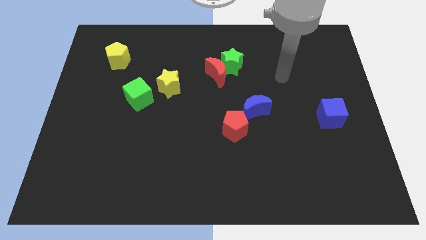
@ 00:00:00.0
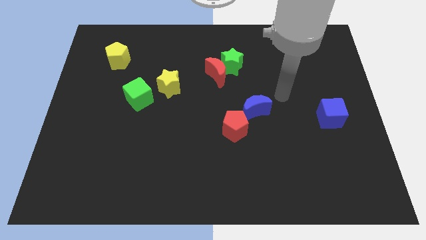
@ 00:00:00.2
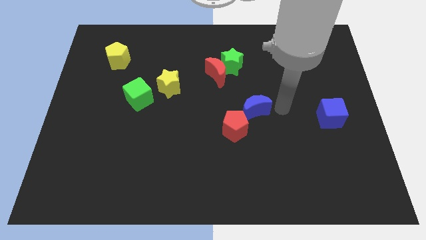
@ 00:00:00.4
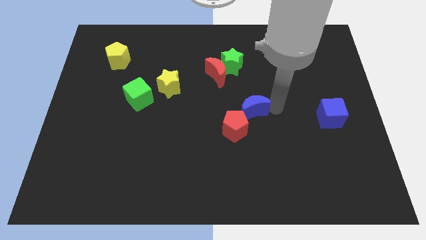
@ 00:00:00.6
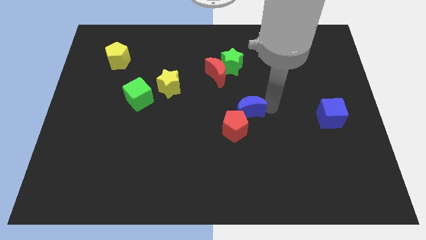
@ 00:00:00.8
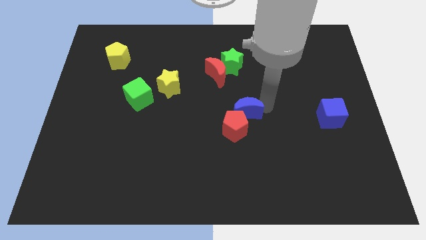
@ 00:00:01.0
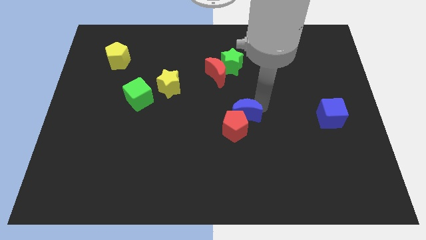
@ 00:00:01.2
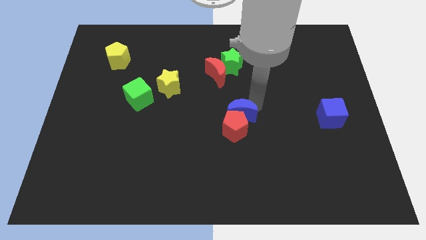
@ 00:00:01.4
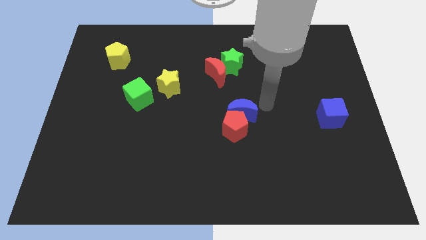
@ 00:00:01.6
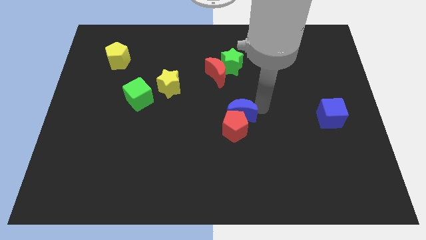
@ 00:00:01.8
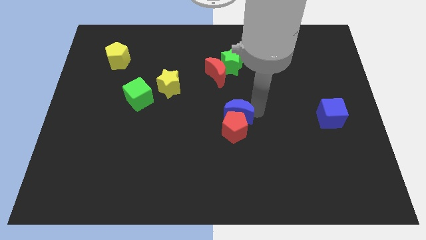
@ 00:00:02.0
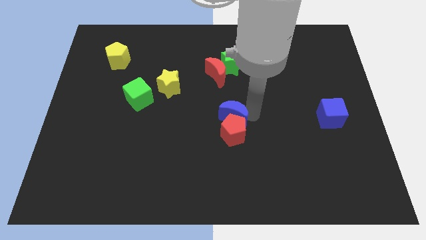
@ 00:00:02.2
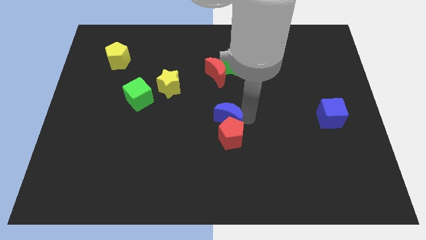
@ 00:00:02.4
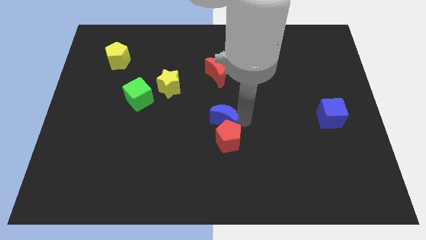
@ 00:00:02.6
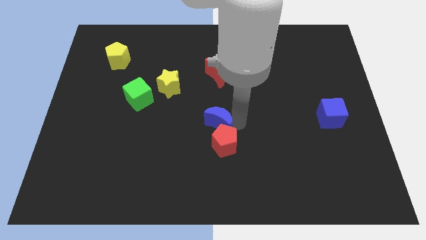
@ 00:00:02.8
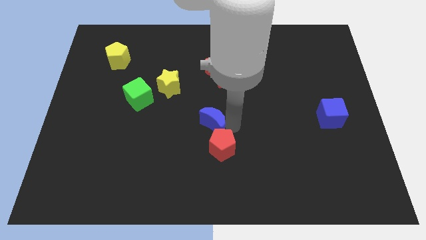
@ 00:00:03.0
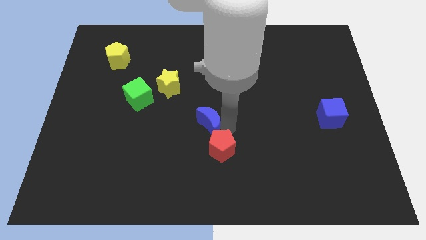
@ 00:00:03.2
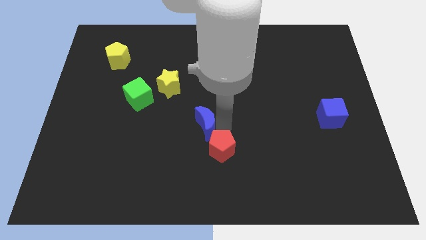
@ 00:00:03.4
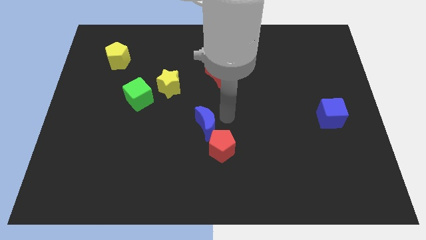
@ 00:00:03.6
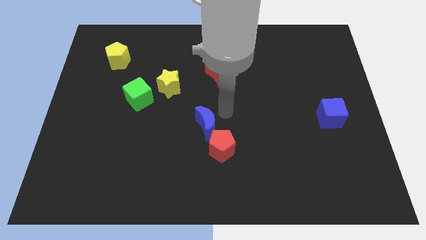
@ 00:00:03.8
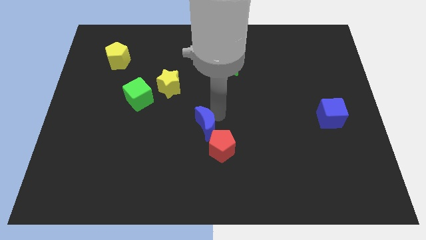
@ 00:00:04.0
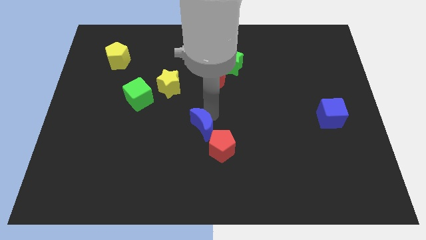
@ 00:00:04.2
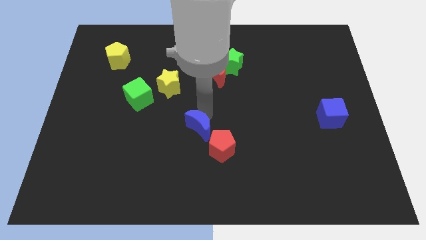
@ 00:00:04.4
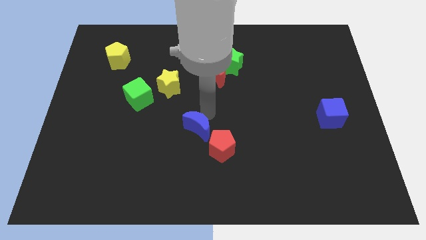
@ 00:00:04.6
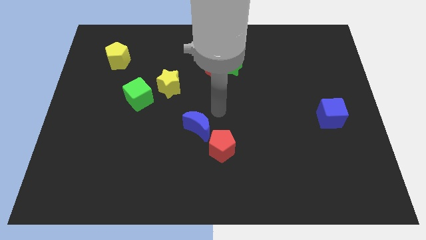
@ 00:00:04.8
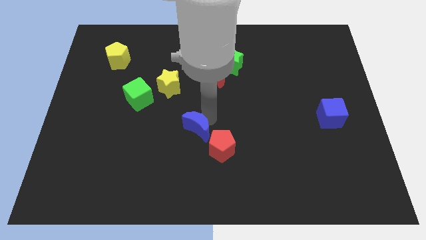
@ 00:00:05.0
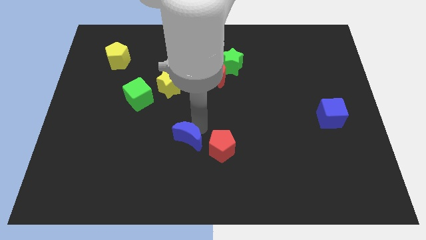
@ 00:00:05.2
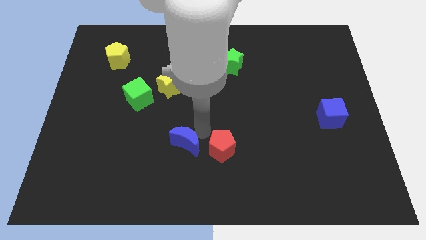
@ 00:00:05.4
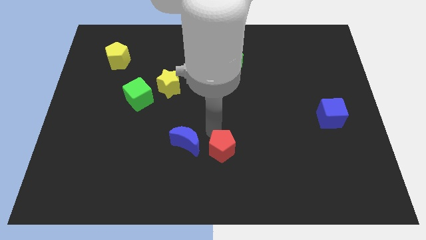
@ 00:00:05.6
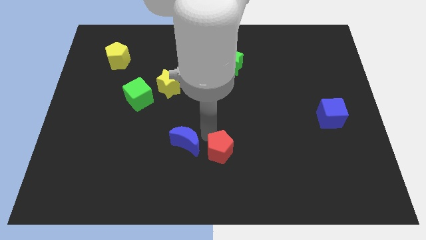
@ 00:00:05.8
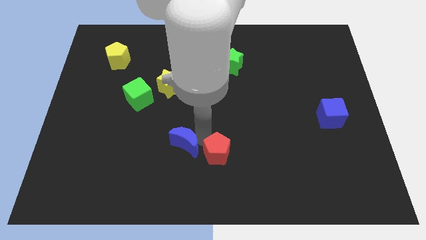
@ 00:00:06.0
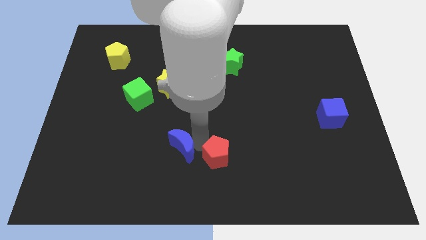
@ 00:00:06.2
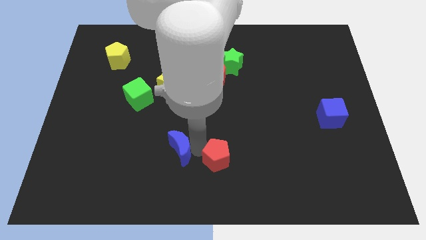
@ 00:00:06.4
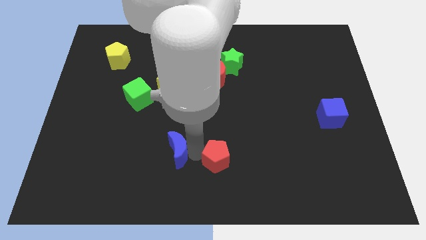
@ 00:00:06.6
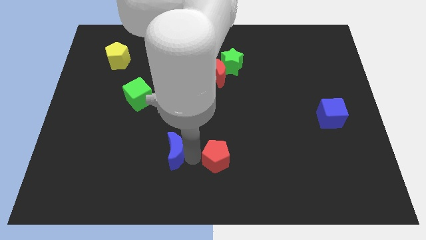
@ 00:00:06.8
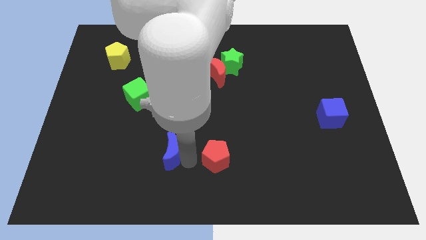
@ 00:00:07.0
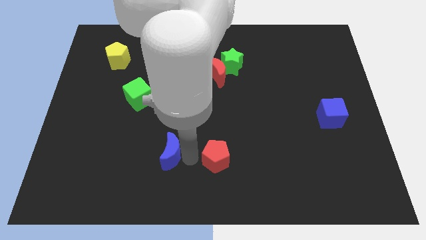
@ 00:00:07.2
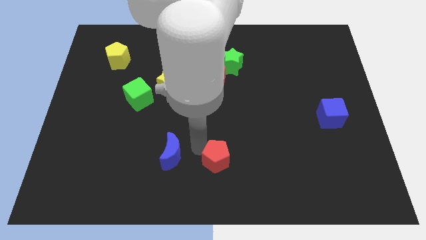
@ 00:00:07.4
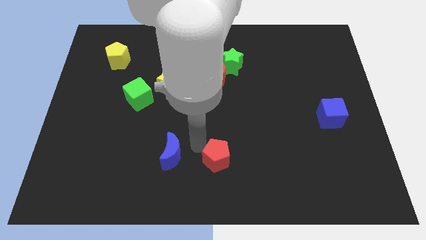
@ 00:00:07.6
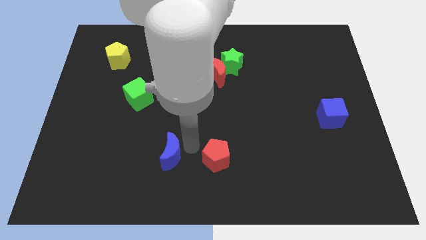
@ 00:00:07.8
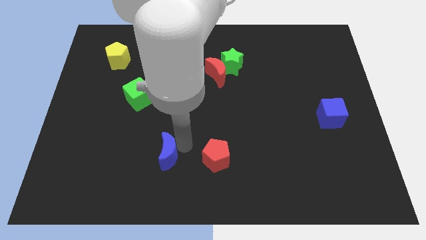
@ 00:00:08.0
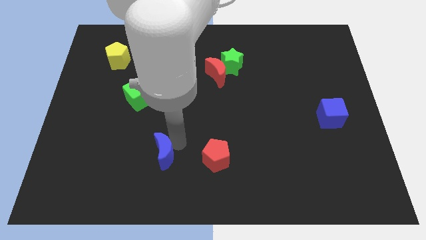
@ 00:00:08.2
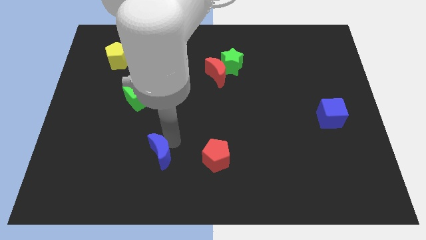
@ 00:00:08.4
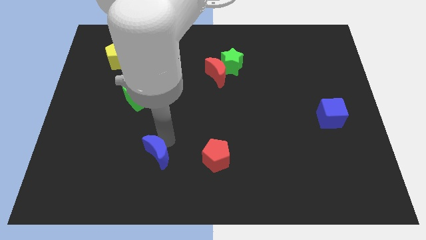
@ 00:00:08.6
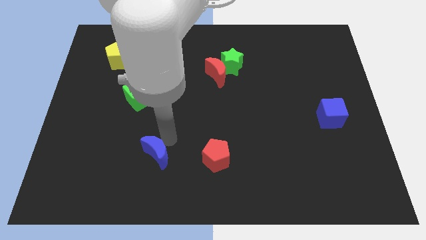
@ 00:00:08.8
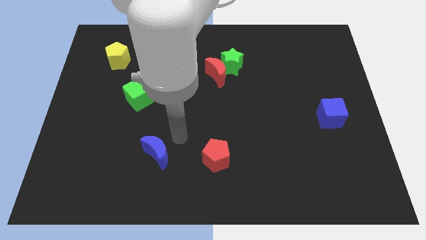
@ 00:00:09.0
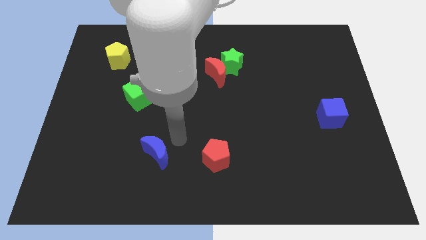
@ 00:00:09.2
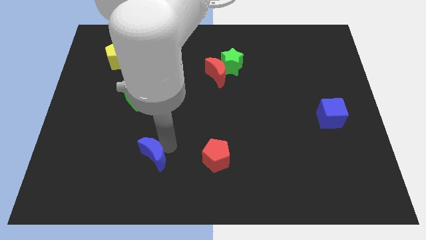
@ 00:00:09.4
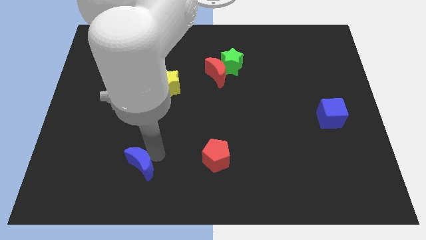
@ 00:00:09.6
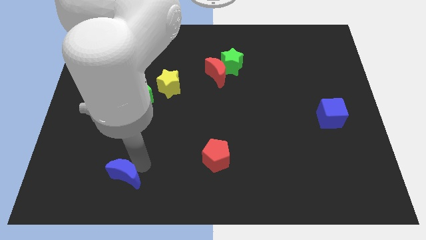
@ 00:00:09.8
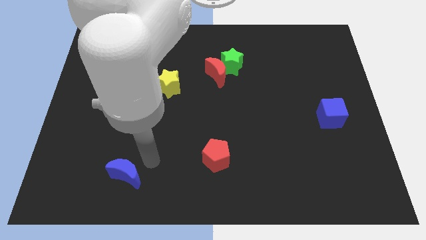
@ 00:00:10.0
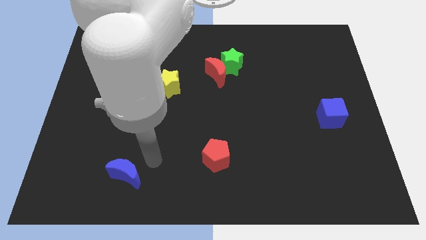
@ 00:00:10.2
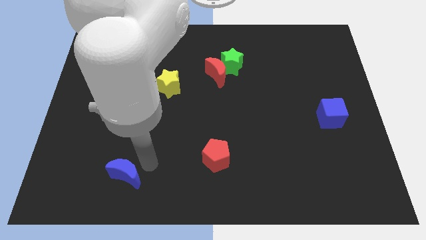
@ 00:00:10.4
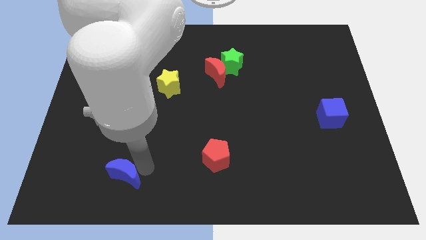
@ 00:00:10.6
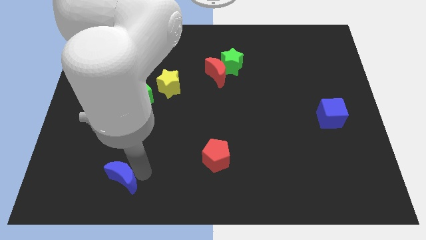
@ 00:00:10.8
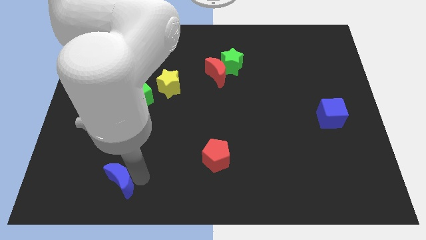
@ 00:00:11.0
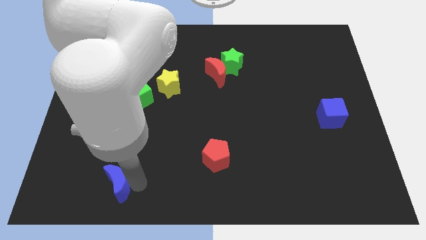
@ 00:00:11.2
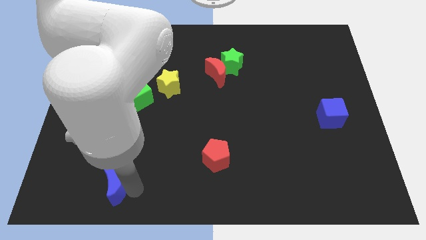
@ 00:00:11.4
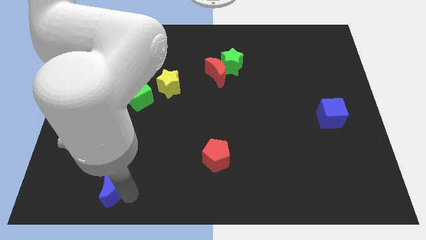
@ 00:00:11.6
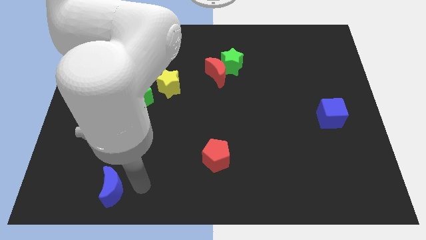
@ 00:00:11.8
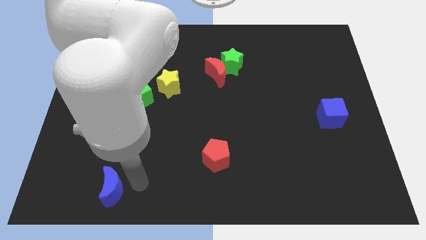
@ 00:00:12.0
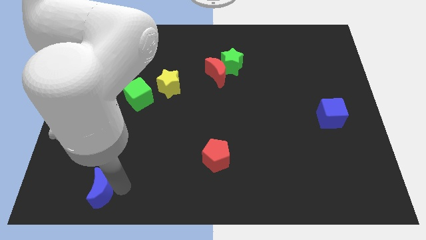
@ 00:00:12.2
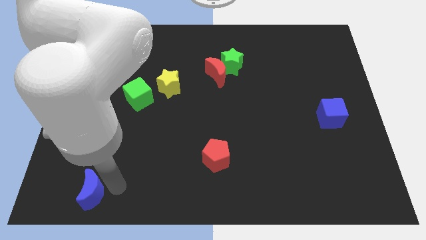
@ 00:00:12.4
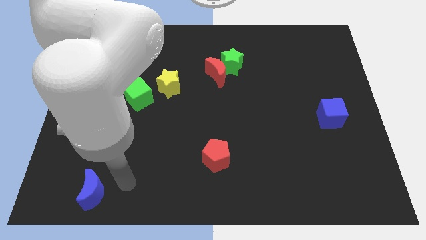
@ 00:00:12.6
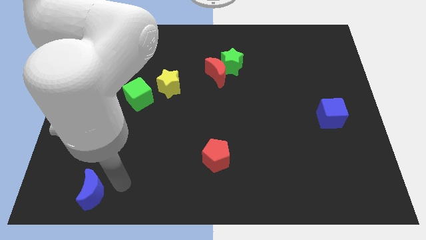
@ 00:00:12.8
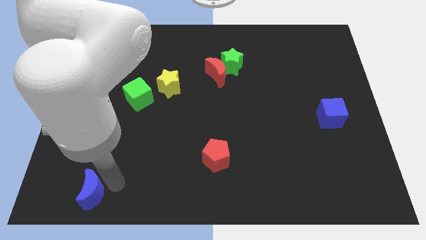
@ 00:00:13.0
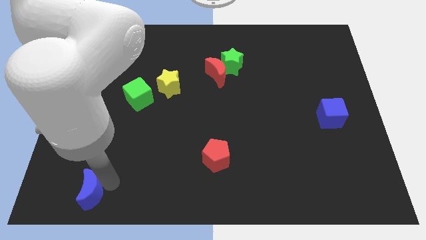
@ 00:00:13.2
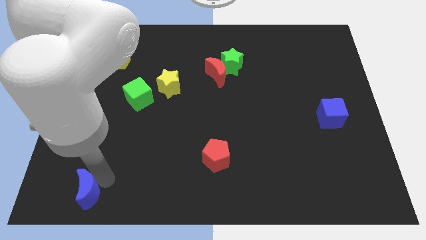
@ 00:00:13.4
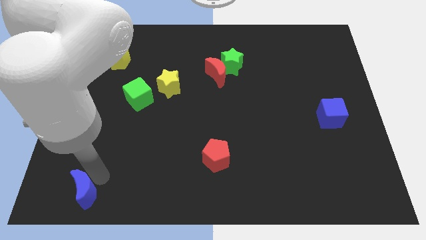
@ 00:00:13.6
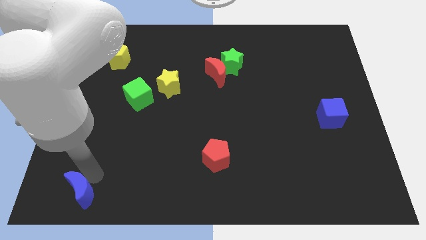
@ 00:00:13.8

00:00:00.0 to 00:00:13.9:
slide the blue moon to the lower left corner

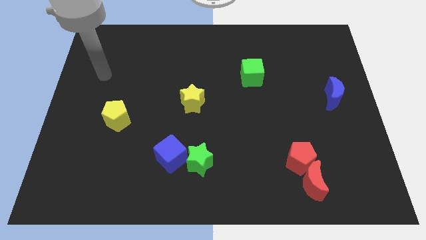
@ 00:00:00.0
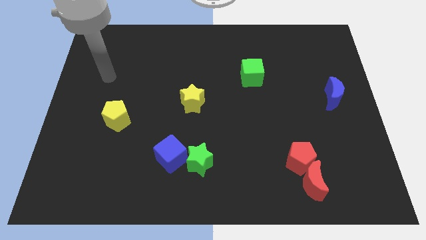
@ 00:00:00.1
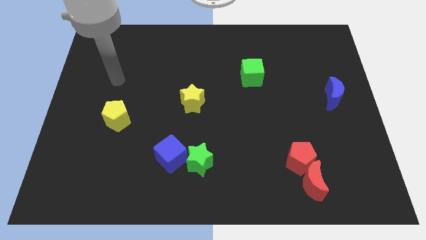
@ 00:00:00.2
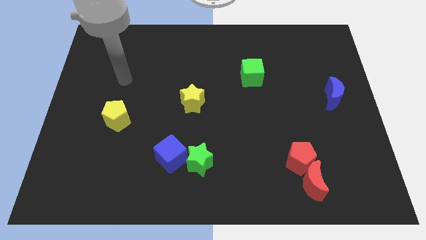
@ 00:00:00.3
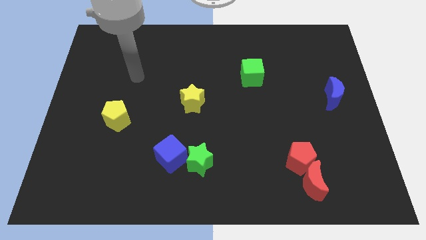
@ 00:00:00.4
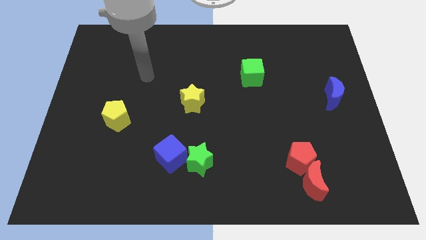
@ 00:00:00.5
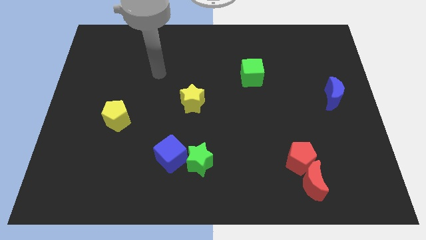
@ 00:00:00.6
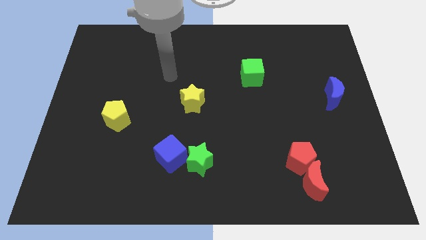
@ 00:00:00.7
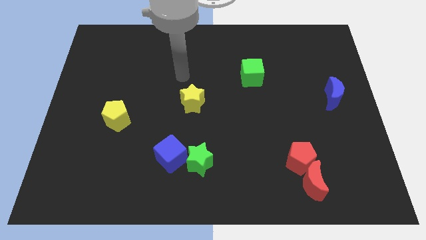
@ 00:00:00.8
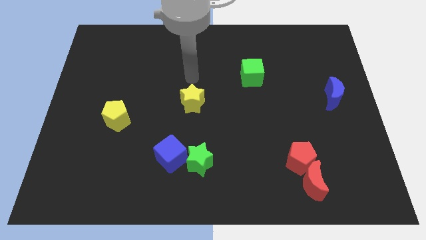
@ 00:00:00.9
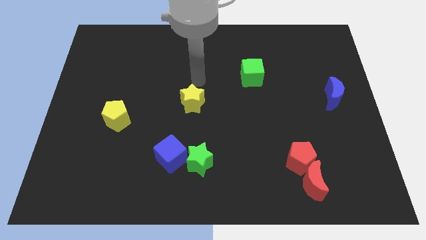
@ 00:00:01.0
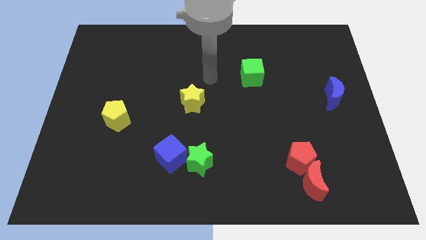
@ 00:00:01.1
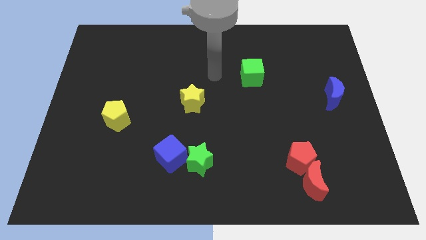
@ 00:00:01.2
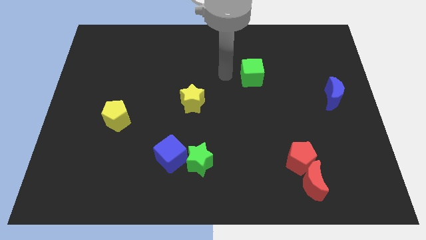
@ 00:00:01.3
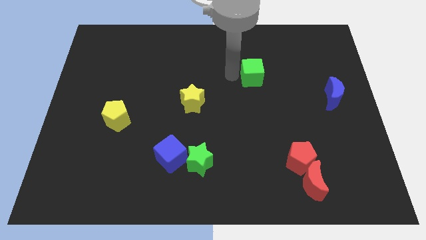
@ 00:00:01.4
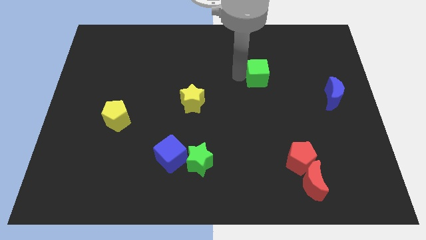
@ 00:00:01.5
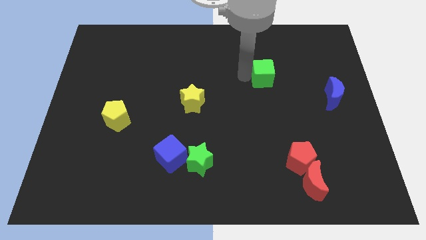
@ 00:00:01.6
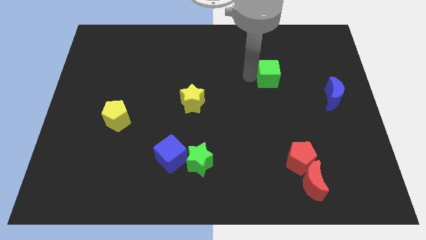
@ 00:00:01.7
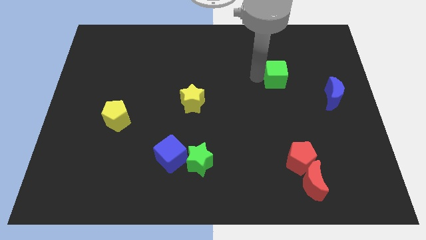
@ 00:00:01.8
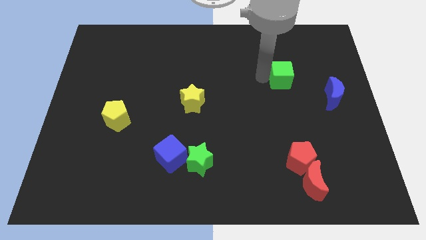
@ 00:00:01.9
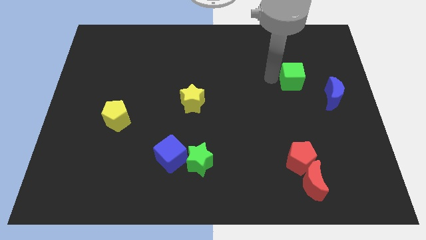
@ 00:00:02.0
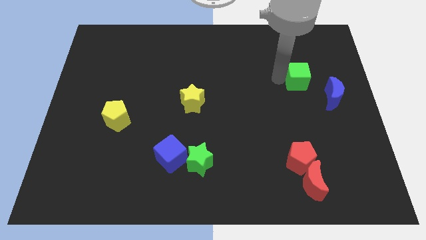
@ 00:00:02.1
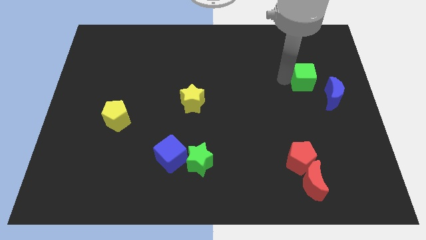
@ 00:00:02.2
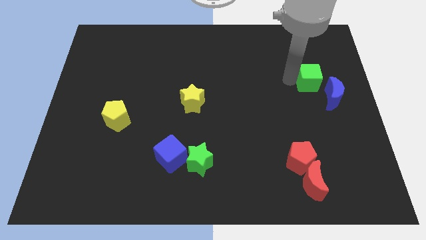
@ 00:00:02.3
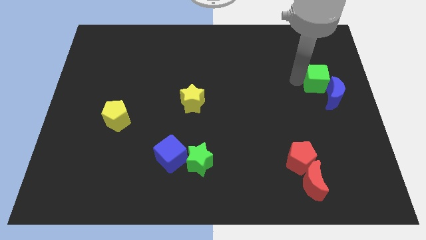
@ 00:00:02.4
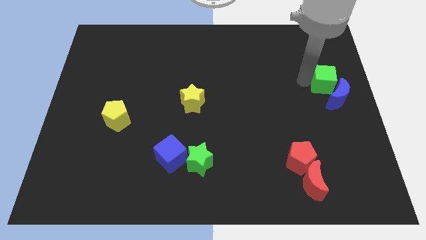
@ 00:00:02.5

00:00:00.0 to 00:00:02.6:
put the green cube to the center right
